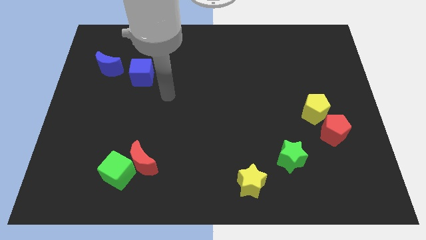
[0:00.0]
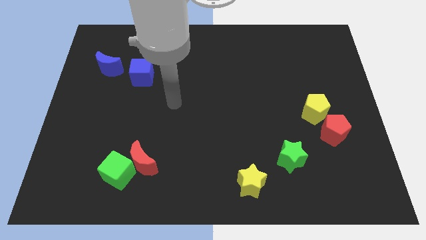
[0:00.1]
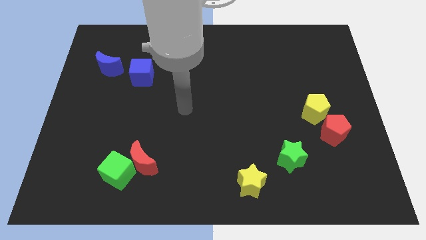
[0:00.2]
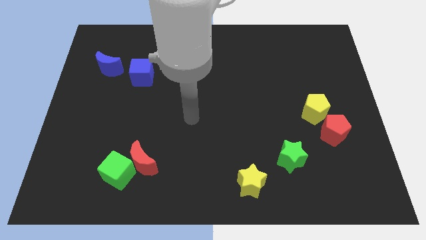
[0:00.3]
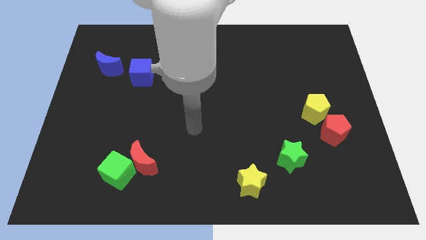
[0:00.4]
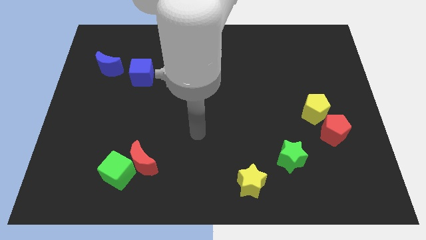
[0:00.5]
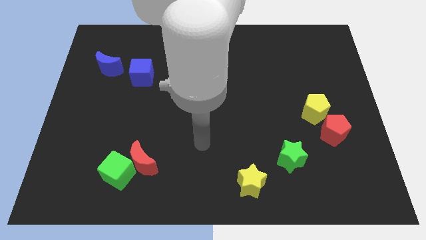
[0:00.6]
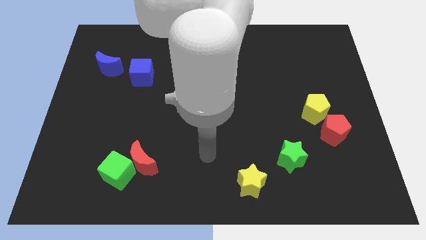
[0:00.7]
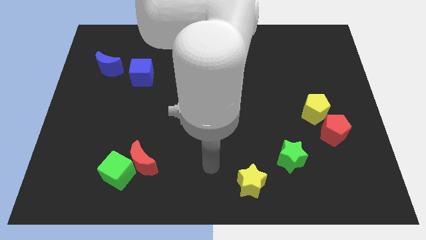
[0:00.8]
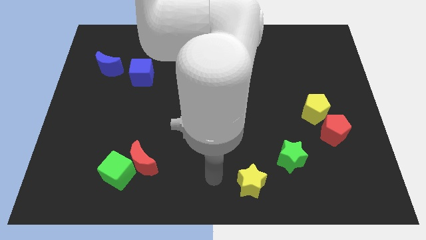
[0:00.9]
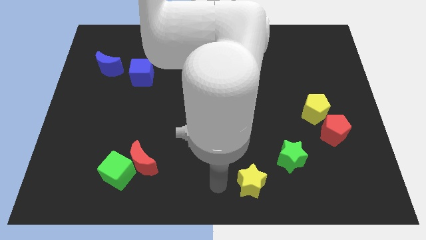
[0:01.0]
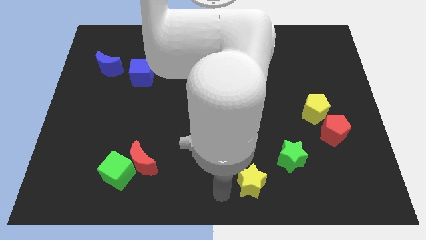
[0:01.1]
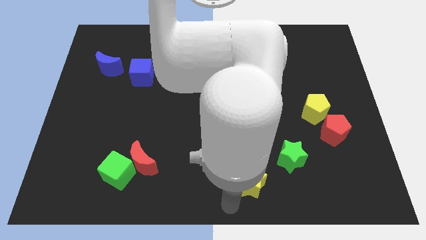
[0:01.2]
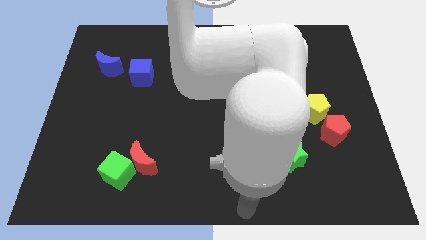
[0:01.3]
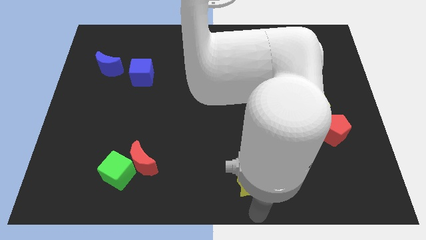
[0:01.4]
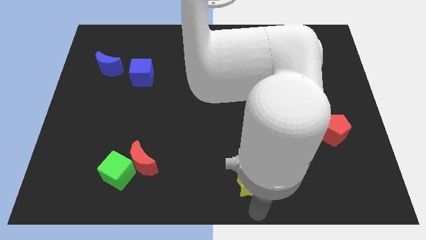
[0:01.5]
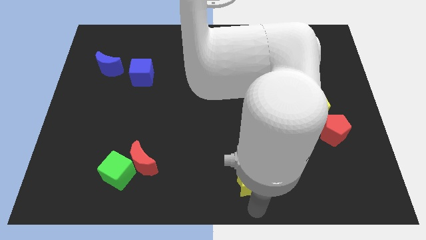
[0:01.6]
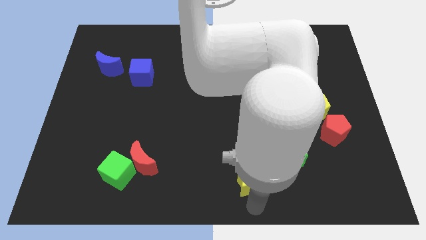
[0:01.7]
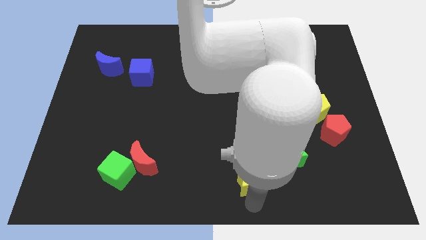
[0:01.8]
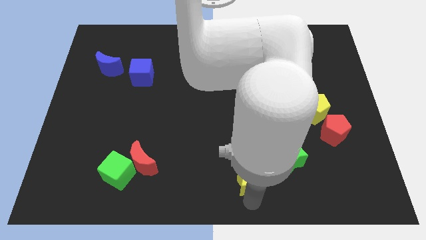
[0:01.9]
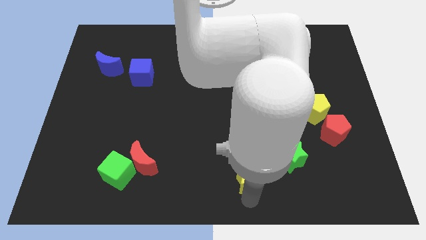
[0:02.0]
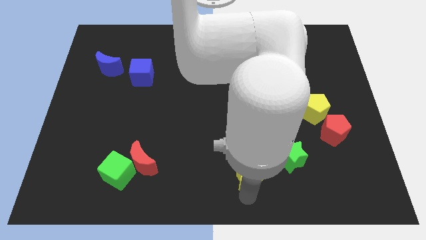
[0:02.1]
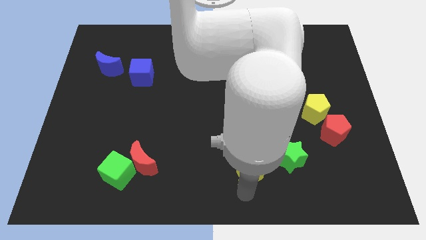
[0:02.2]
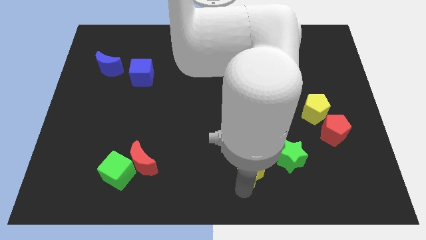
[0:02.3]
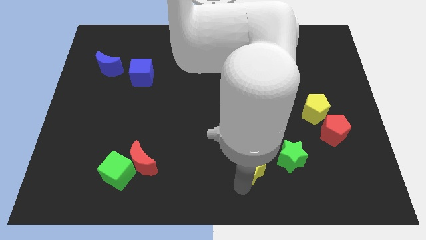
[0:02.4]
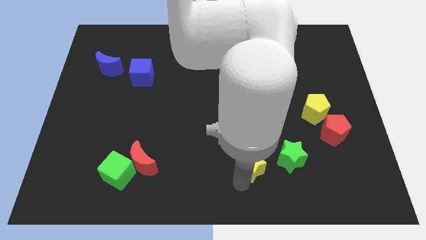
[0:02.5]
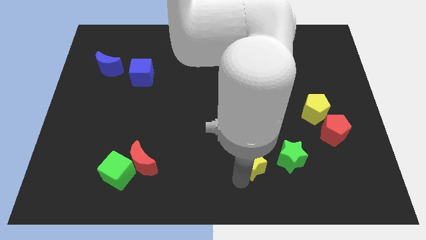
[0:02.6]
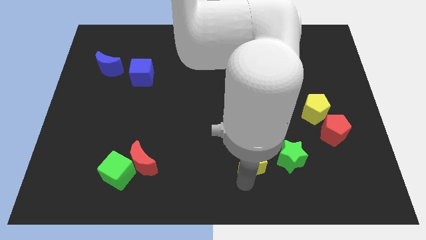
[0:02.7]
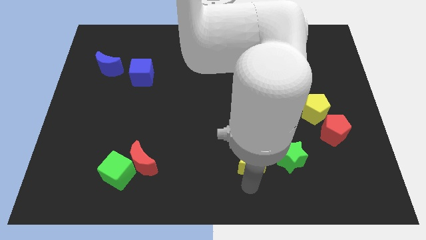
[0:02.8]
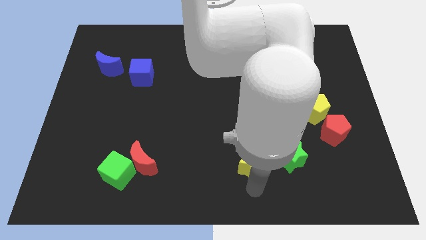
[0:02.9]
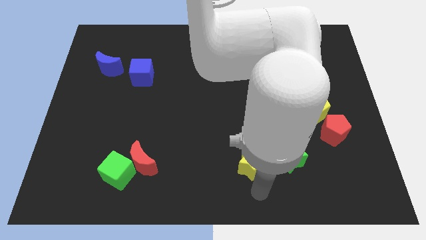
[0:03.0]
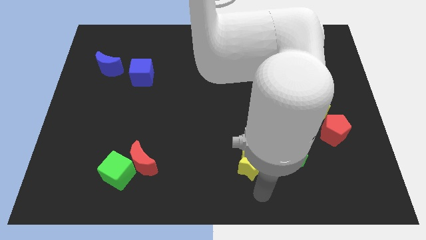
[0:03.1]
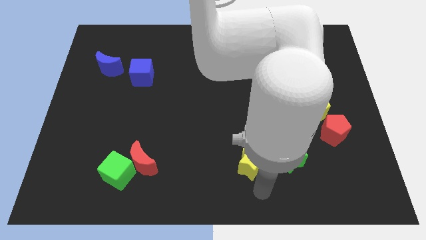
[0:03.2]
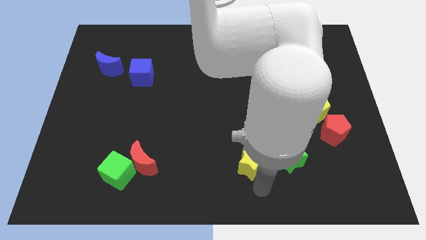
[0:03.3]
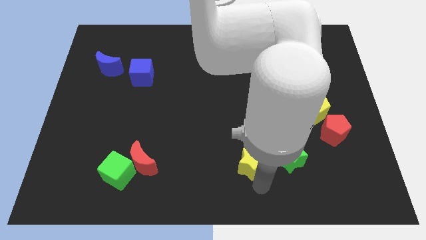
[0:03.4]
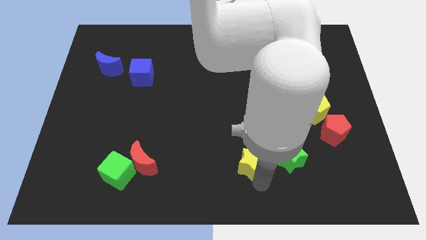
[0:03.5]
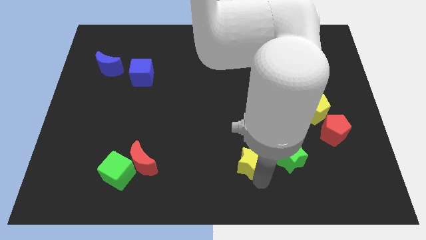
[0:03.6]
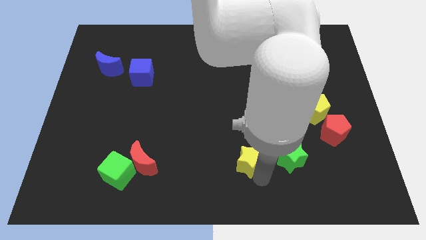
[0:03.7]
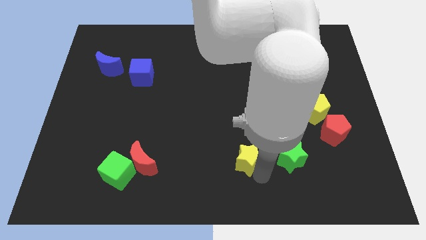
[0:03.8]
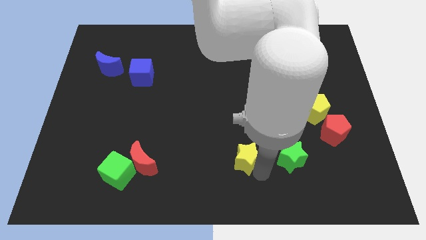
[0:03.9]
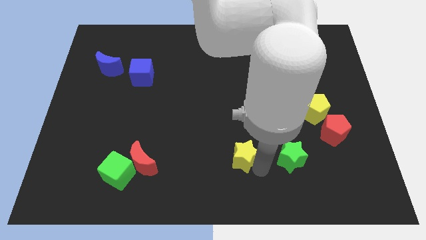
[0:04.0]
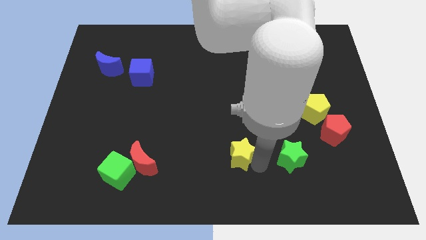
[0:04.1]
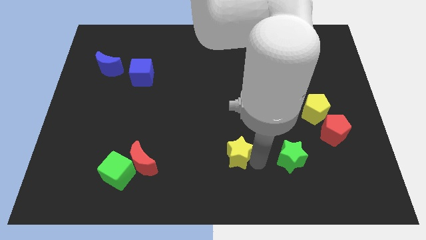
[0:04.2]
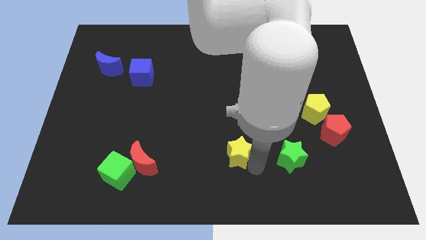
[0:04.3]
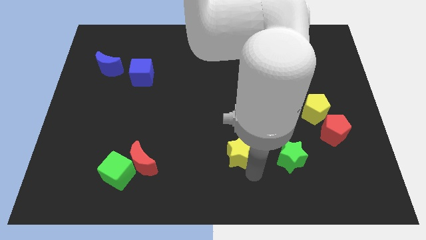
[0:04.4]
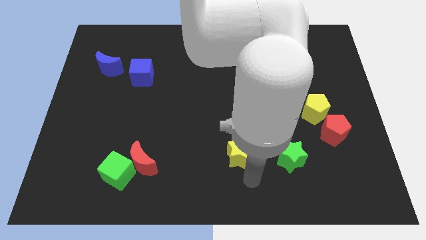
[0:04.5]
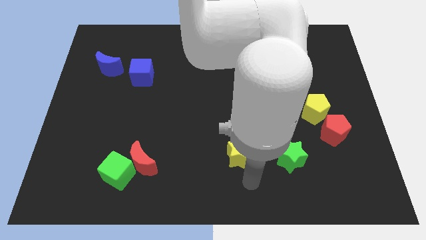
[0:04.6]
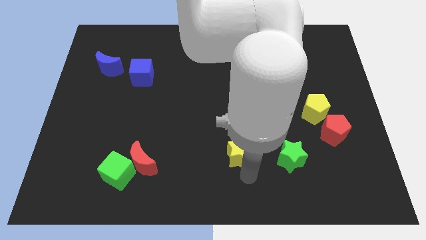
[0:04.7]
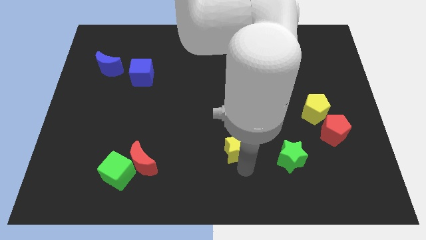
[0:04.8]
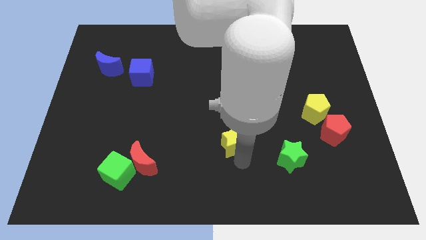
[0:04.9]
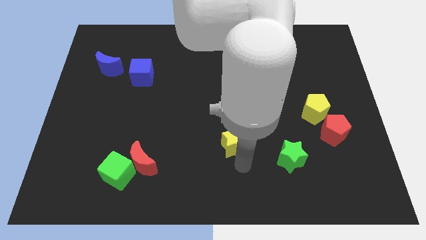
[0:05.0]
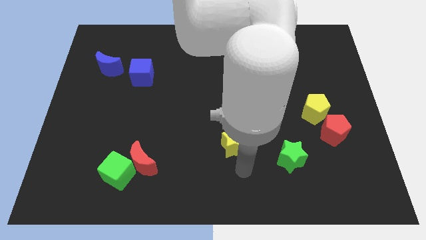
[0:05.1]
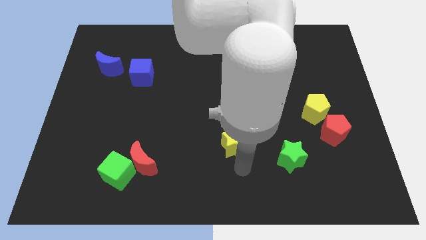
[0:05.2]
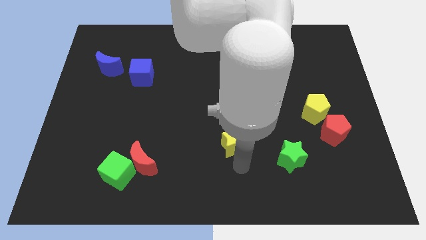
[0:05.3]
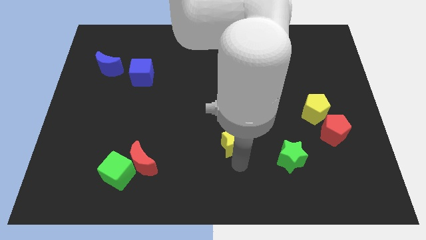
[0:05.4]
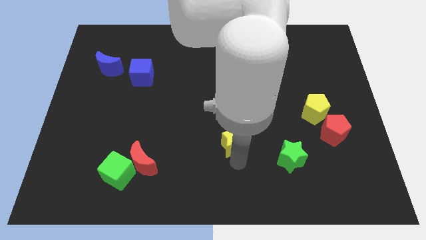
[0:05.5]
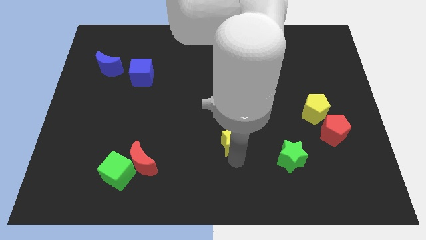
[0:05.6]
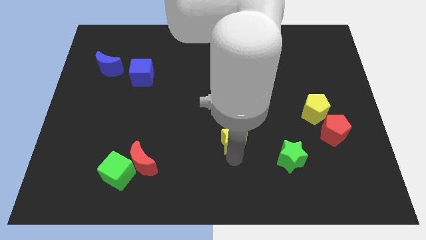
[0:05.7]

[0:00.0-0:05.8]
push the yellow star to the center of the board
